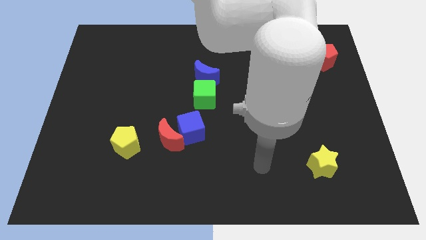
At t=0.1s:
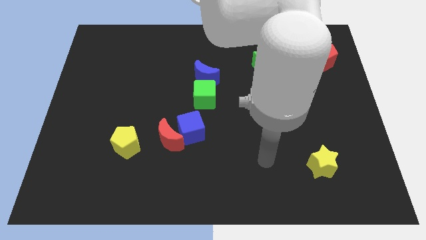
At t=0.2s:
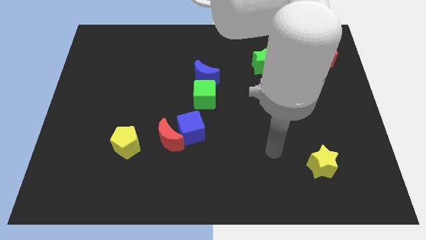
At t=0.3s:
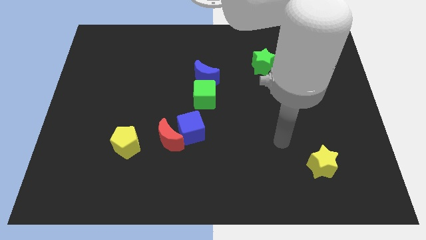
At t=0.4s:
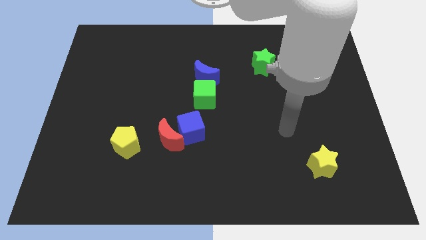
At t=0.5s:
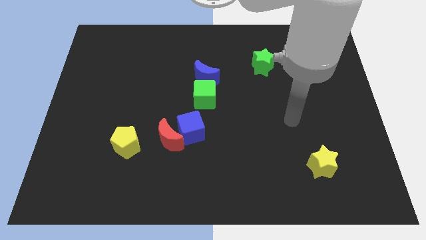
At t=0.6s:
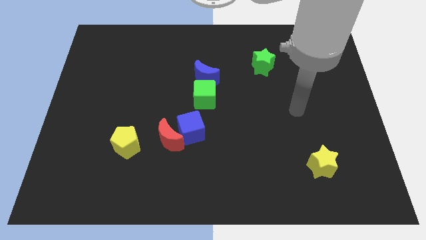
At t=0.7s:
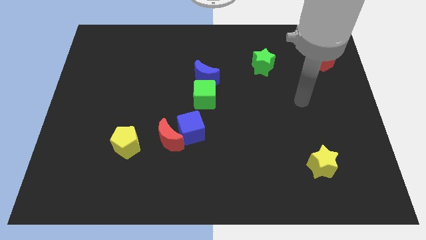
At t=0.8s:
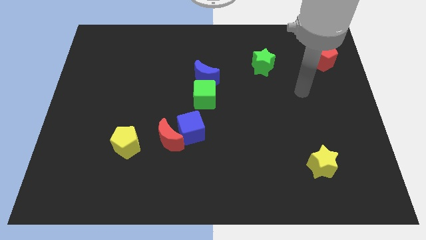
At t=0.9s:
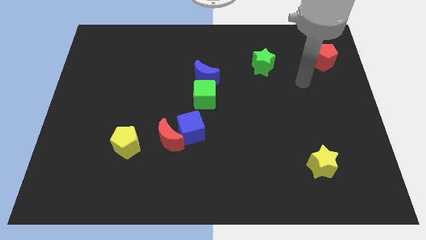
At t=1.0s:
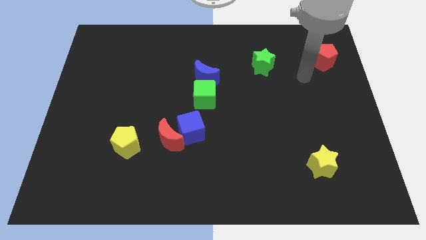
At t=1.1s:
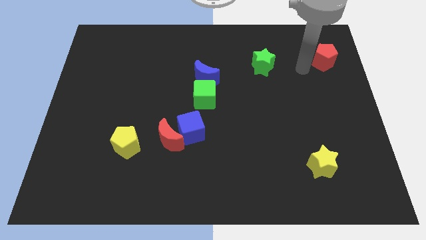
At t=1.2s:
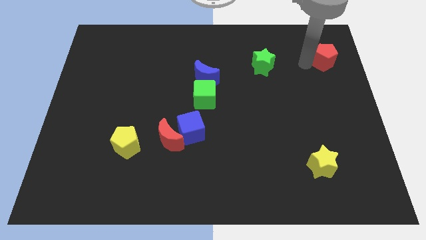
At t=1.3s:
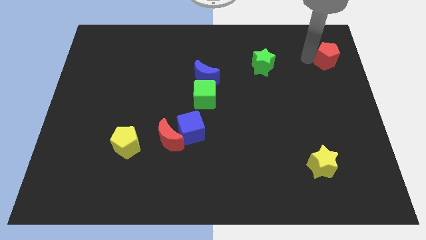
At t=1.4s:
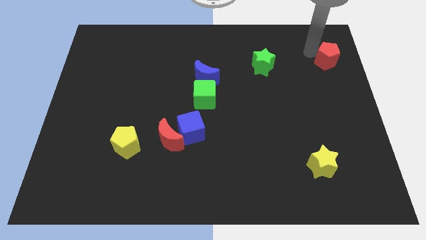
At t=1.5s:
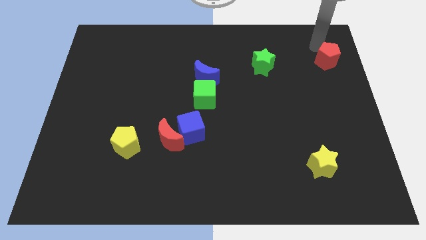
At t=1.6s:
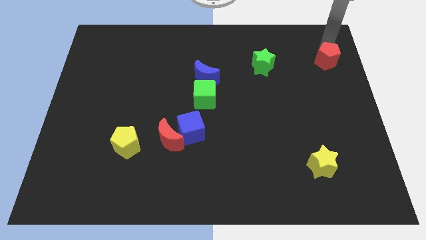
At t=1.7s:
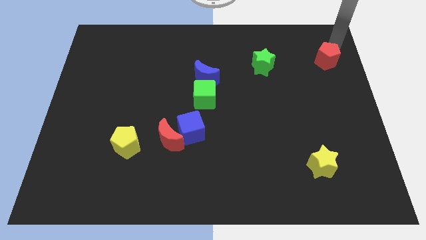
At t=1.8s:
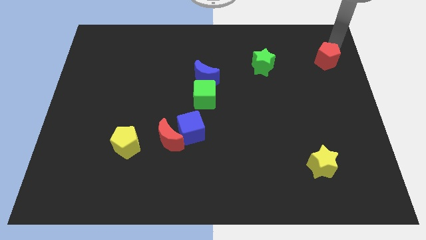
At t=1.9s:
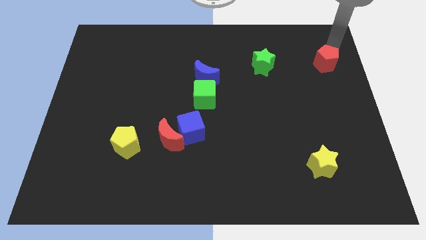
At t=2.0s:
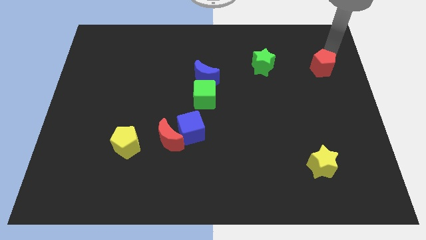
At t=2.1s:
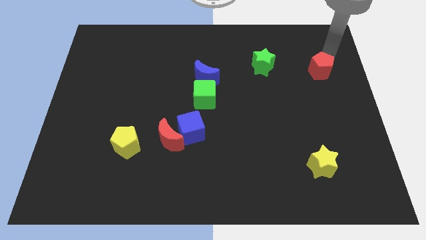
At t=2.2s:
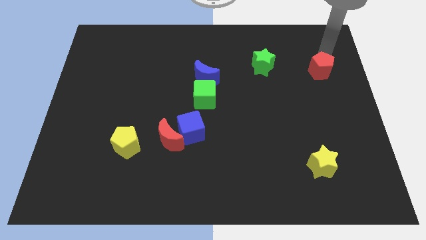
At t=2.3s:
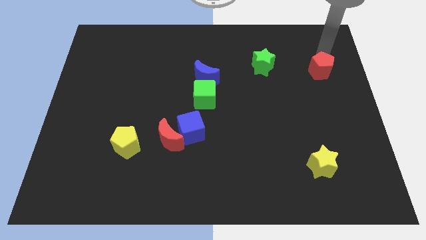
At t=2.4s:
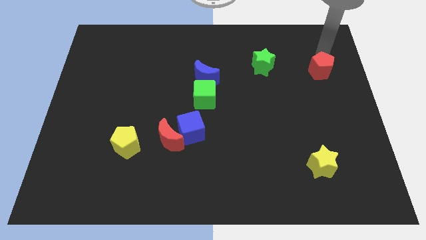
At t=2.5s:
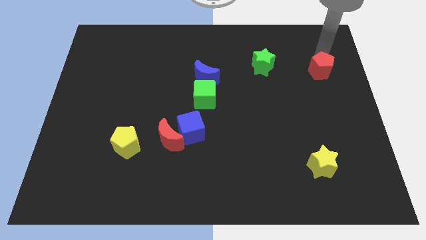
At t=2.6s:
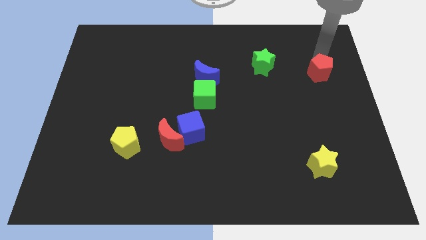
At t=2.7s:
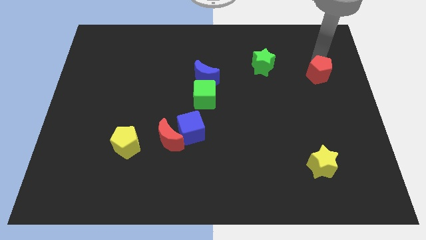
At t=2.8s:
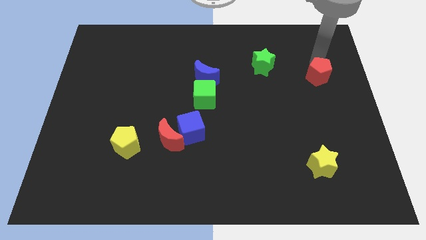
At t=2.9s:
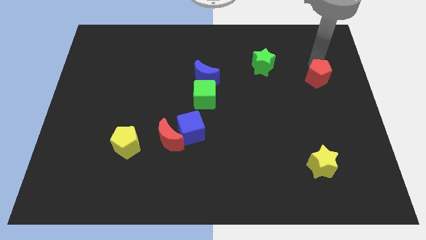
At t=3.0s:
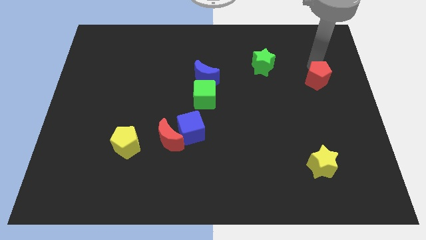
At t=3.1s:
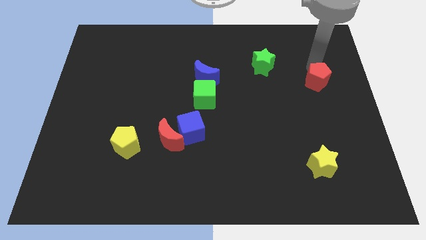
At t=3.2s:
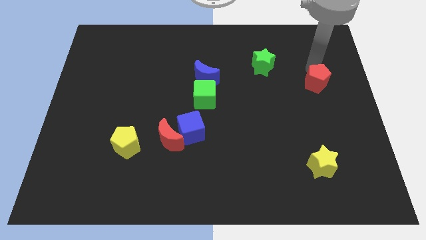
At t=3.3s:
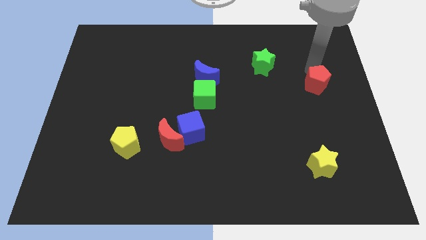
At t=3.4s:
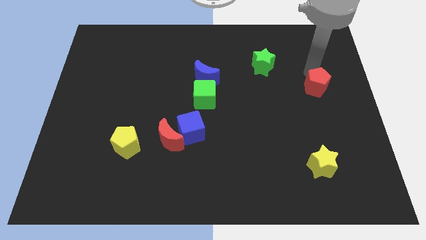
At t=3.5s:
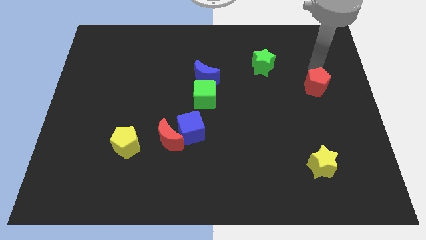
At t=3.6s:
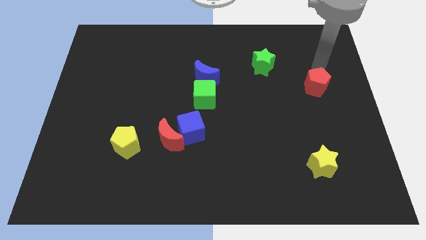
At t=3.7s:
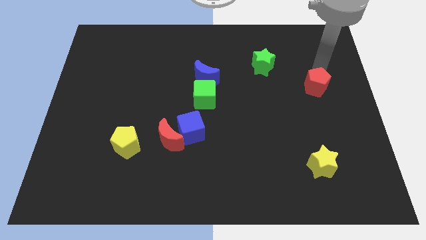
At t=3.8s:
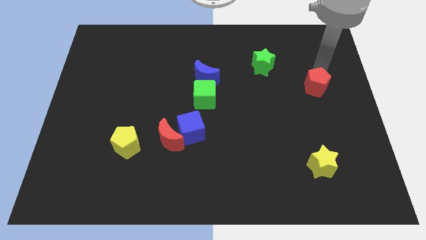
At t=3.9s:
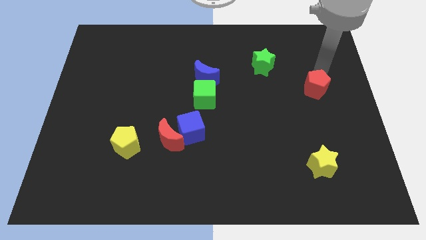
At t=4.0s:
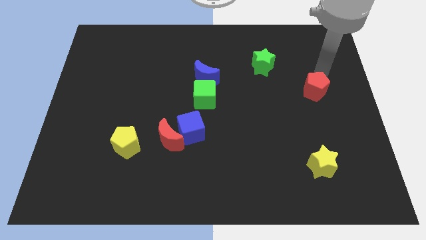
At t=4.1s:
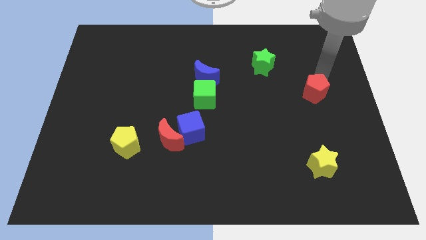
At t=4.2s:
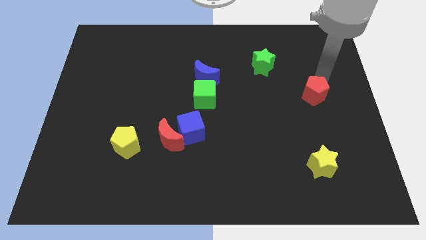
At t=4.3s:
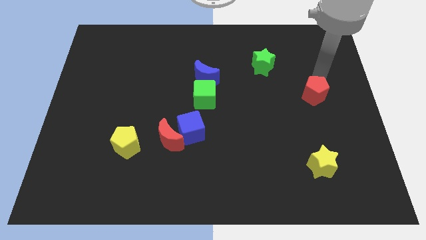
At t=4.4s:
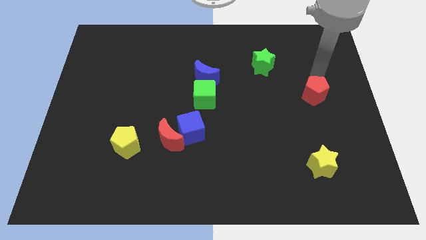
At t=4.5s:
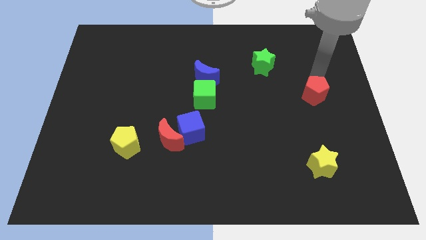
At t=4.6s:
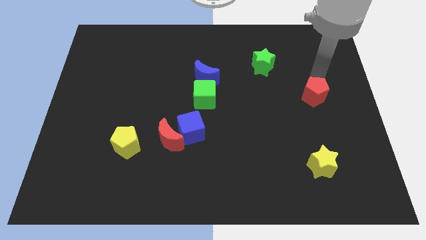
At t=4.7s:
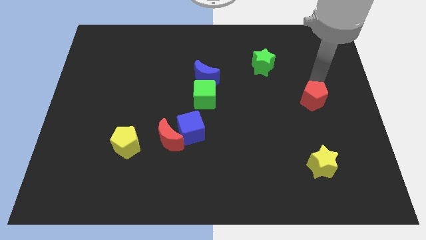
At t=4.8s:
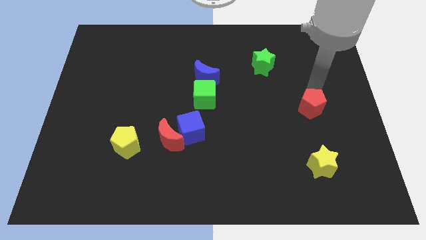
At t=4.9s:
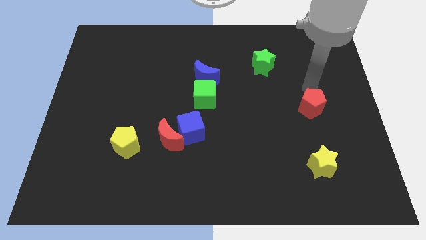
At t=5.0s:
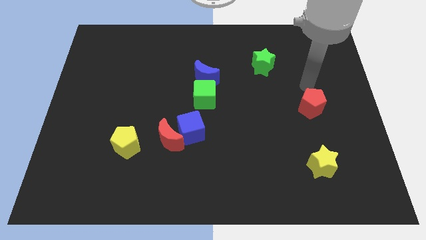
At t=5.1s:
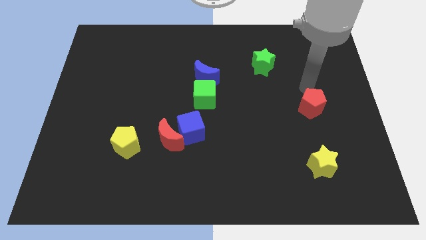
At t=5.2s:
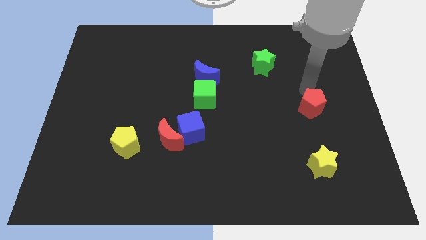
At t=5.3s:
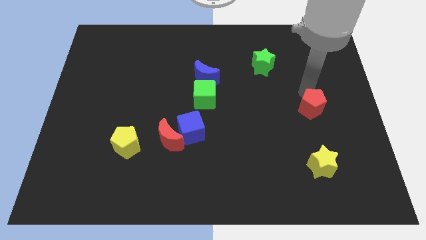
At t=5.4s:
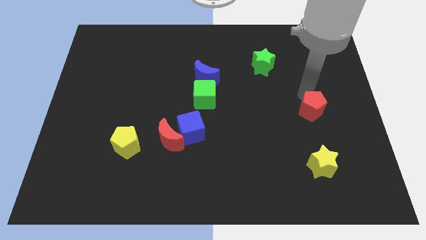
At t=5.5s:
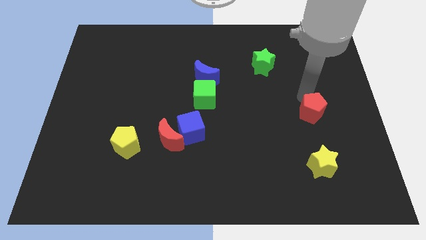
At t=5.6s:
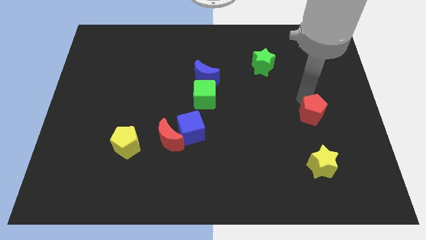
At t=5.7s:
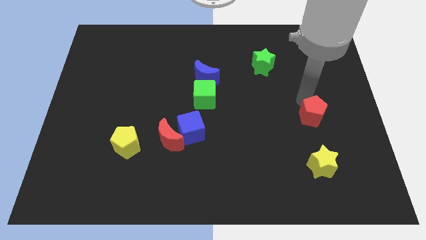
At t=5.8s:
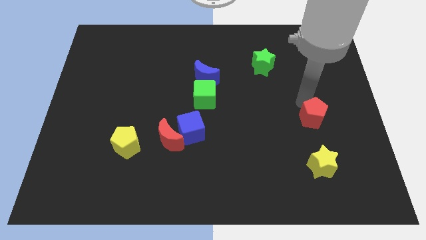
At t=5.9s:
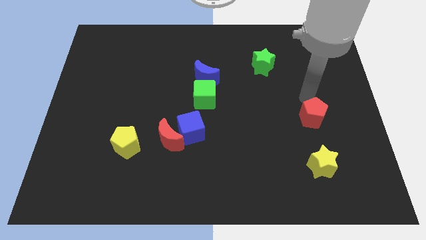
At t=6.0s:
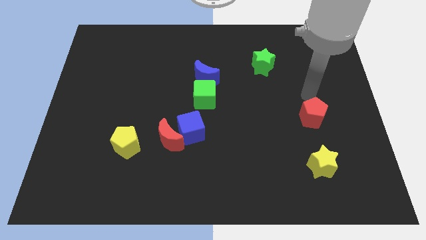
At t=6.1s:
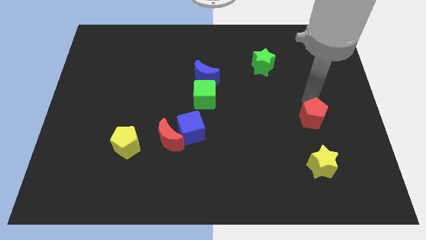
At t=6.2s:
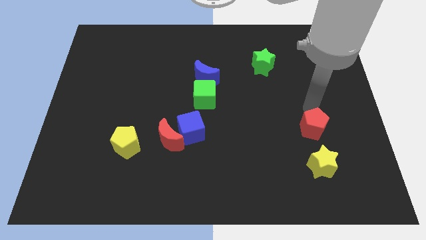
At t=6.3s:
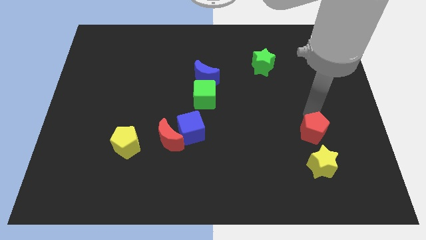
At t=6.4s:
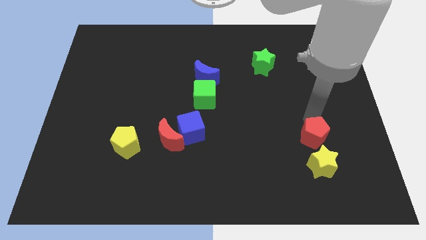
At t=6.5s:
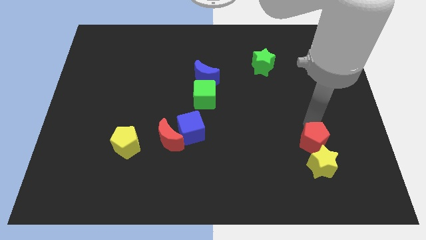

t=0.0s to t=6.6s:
move the red pentagon close to the yellow star

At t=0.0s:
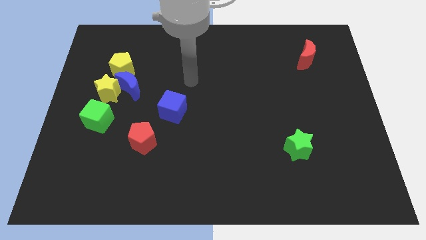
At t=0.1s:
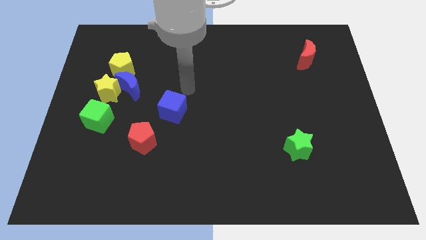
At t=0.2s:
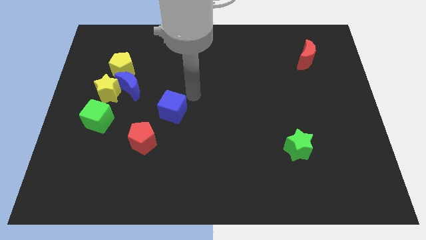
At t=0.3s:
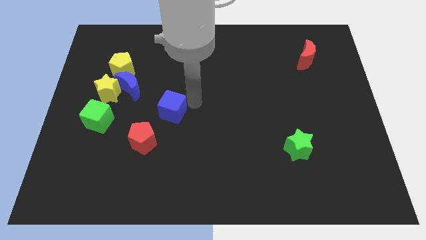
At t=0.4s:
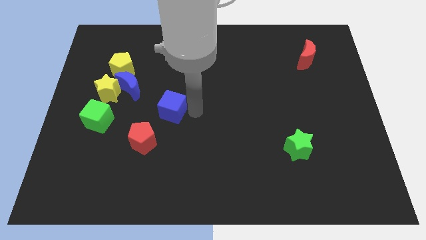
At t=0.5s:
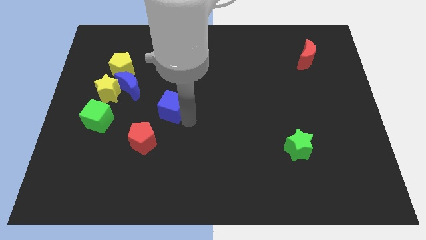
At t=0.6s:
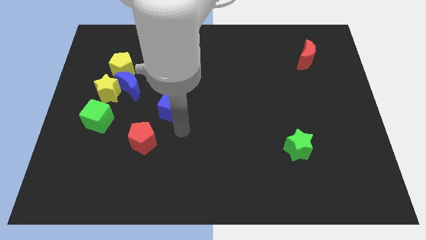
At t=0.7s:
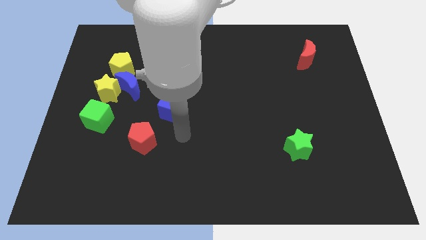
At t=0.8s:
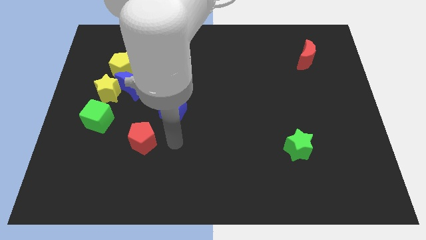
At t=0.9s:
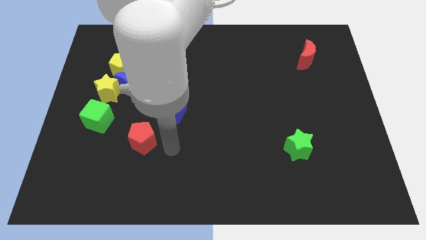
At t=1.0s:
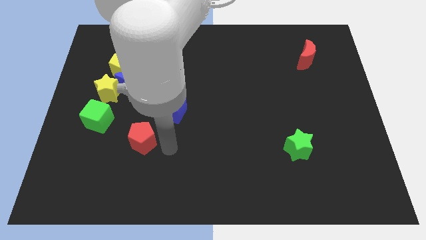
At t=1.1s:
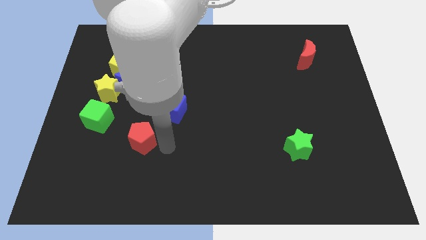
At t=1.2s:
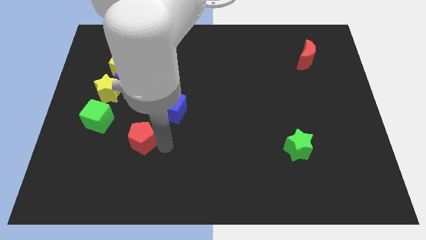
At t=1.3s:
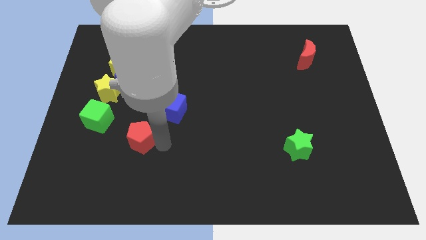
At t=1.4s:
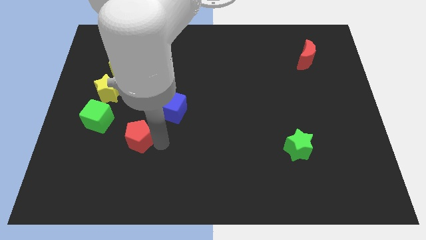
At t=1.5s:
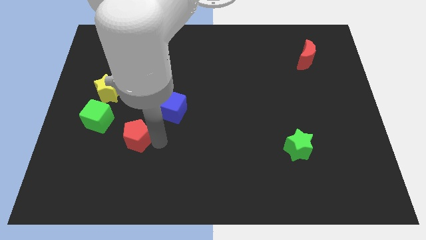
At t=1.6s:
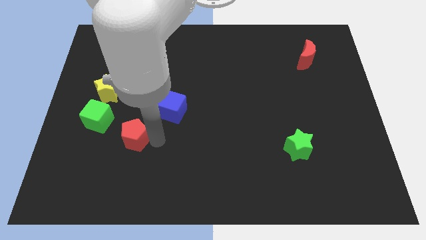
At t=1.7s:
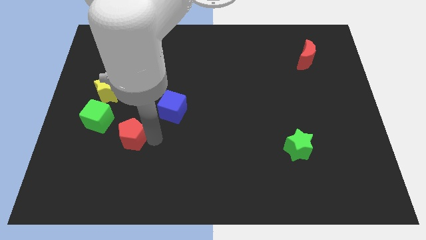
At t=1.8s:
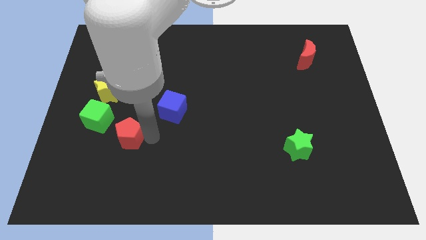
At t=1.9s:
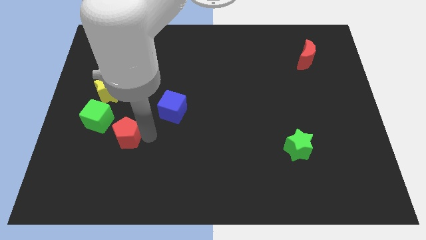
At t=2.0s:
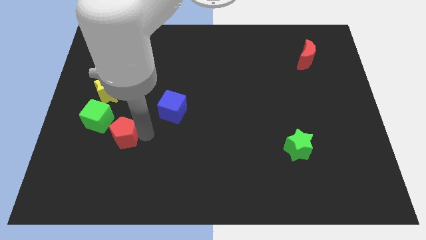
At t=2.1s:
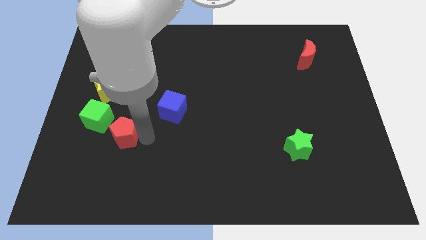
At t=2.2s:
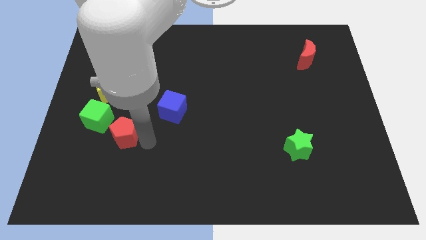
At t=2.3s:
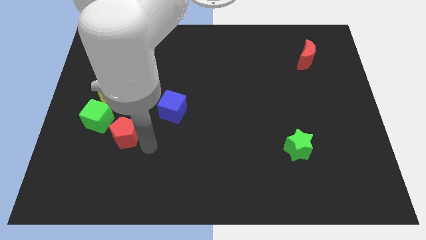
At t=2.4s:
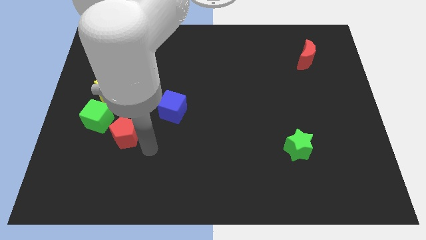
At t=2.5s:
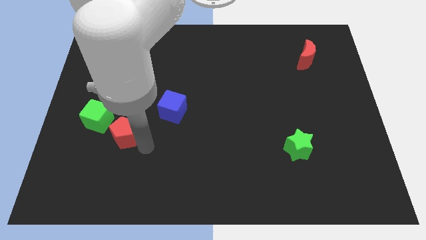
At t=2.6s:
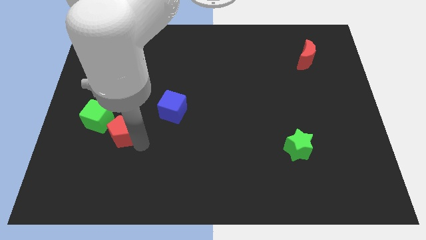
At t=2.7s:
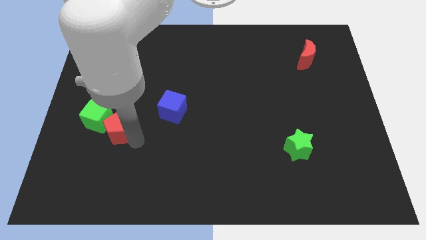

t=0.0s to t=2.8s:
slide the red pentagon towards the green cube
